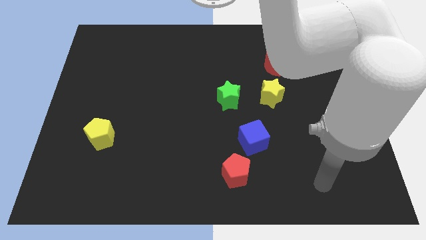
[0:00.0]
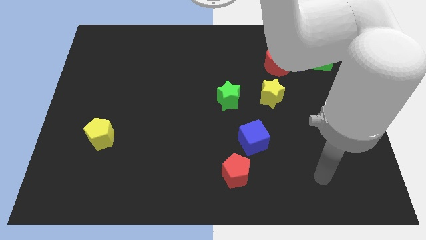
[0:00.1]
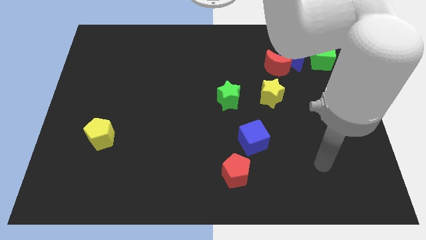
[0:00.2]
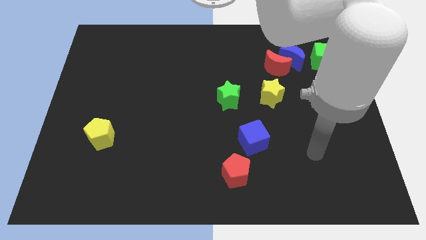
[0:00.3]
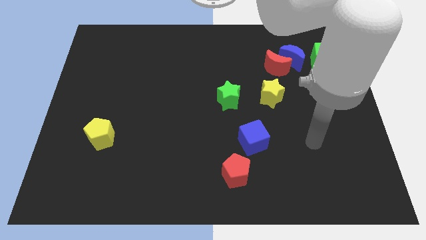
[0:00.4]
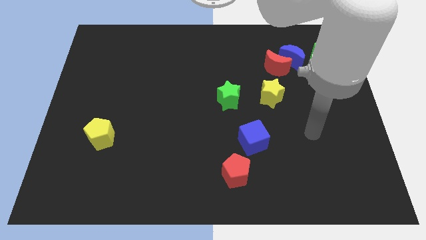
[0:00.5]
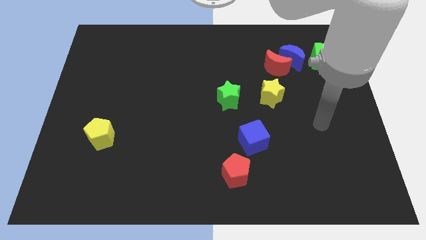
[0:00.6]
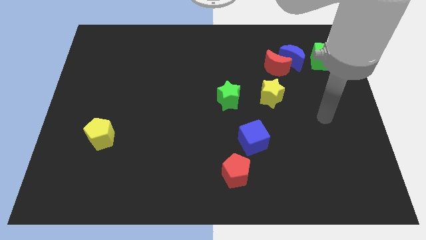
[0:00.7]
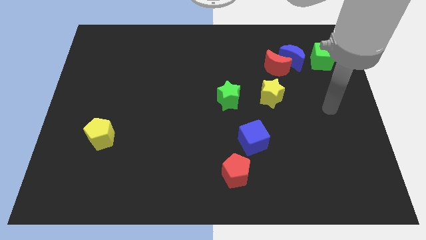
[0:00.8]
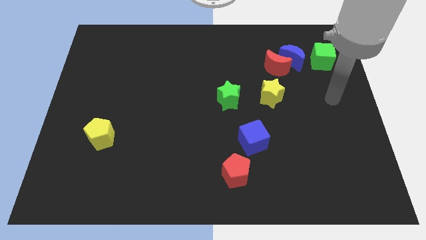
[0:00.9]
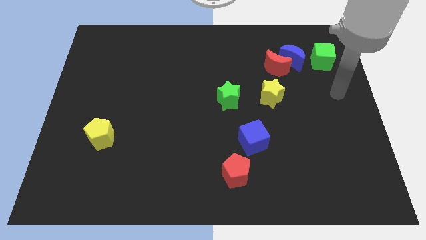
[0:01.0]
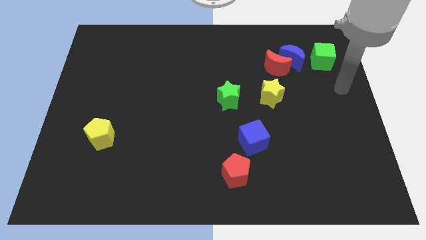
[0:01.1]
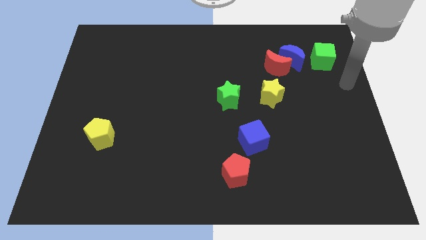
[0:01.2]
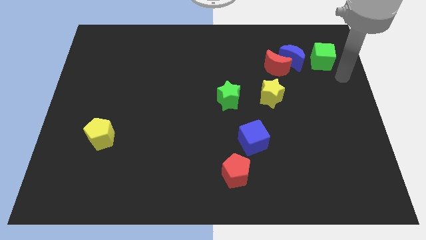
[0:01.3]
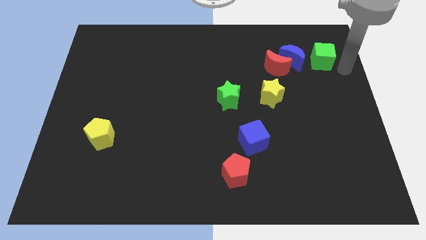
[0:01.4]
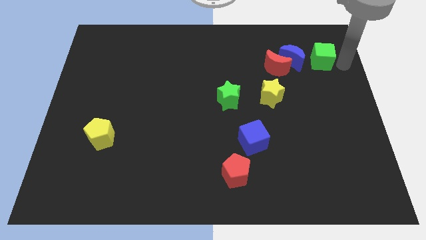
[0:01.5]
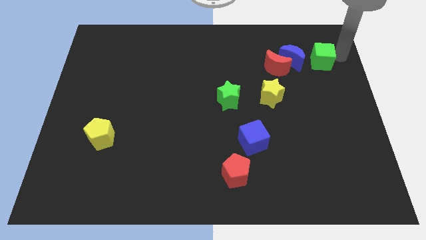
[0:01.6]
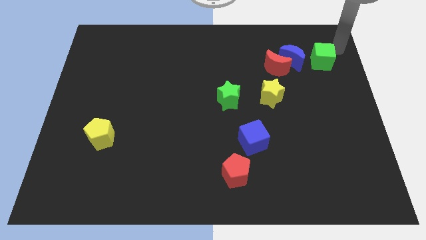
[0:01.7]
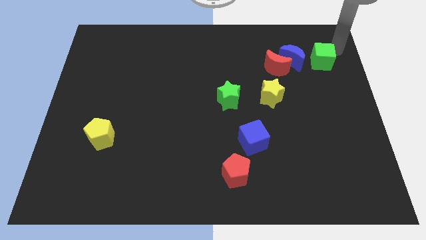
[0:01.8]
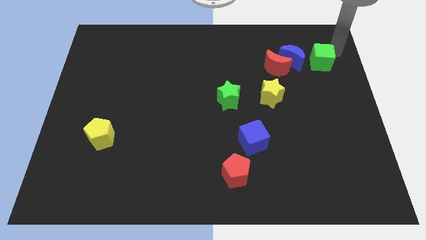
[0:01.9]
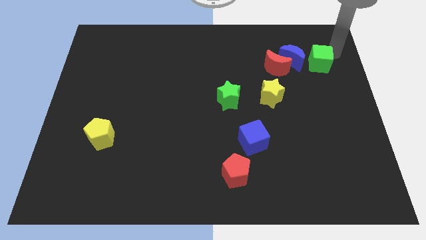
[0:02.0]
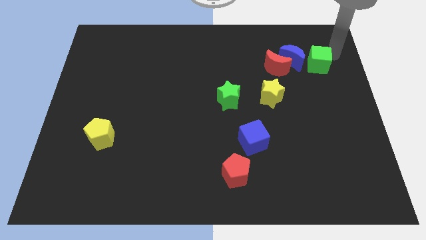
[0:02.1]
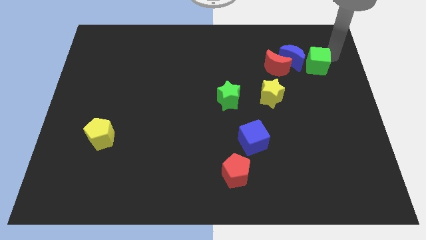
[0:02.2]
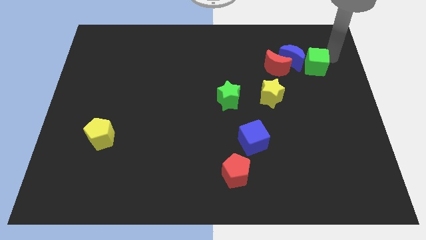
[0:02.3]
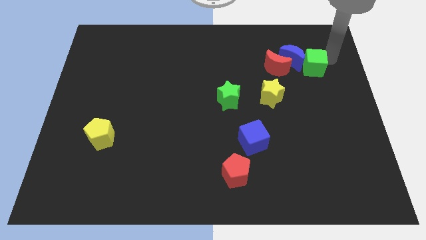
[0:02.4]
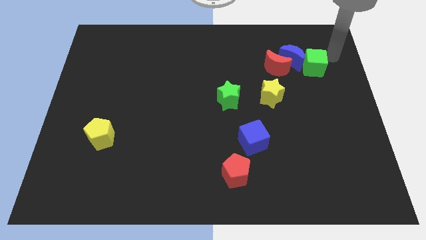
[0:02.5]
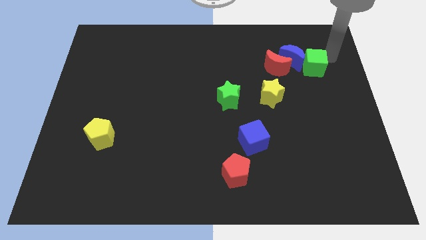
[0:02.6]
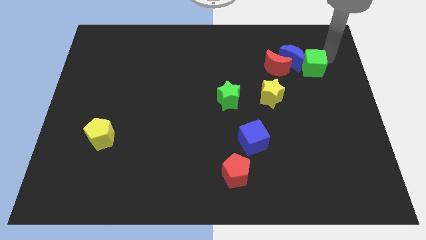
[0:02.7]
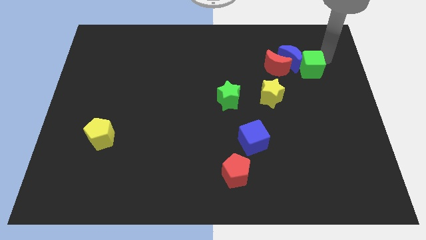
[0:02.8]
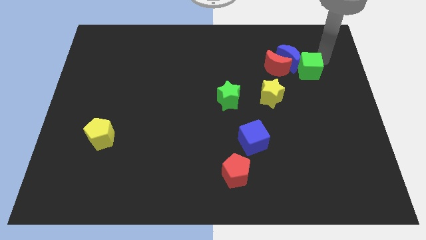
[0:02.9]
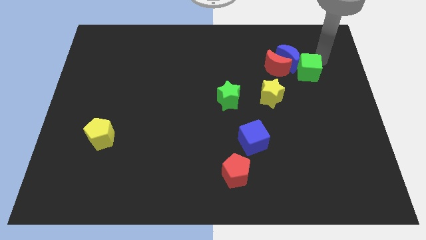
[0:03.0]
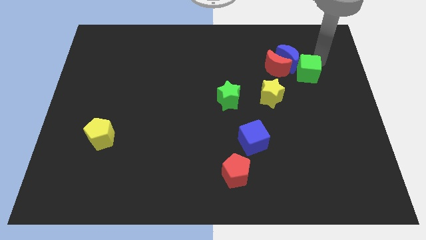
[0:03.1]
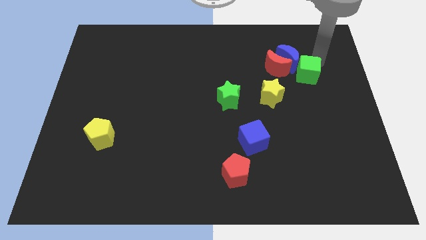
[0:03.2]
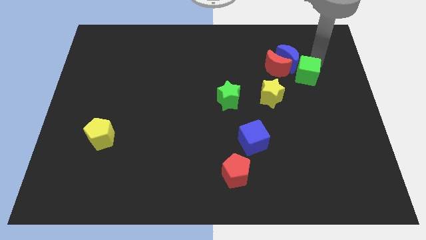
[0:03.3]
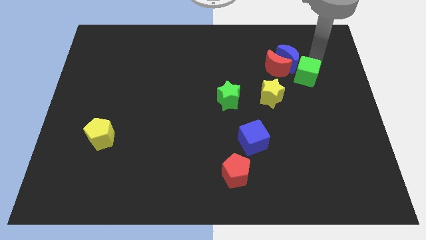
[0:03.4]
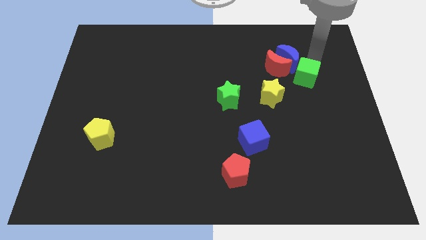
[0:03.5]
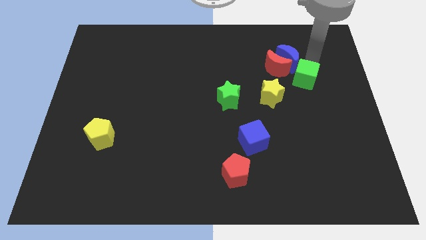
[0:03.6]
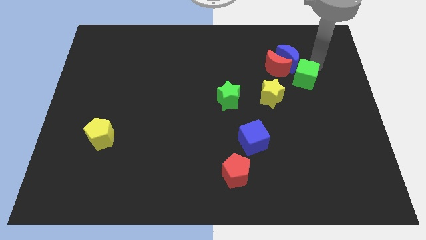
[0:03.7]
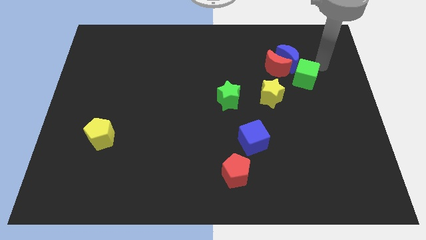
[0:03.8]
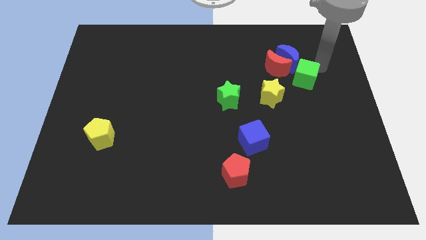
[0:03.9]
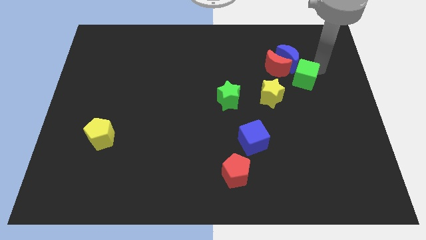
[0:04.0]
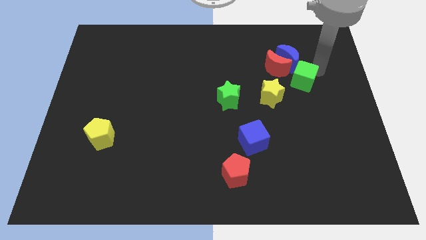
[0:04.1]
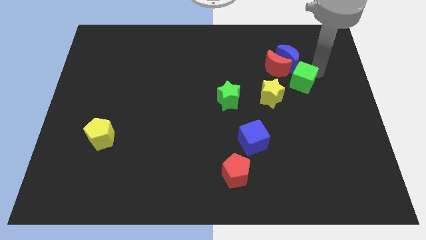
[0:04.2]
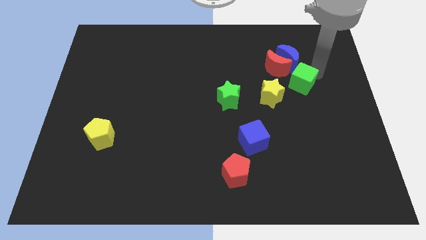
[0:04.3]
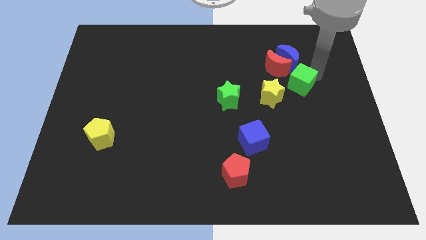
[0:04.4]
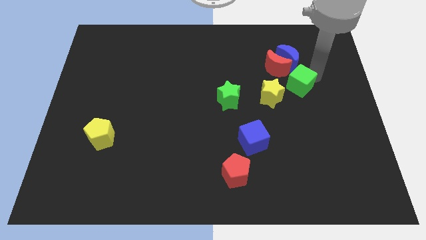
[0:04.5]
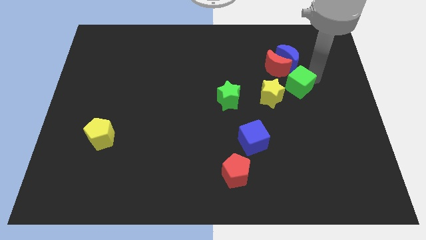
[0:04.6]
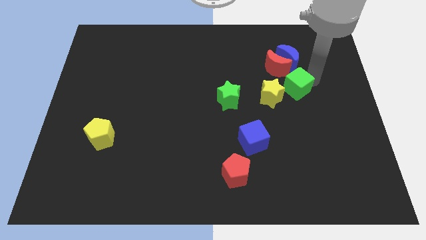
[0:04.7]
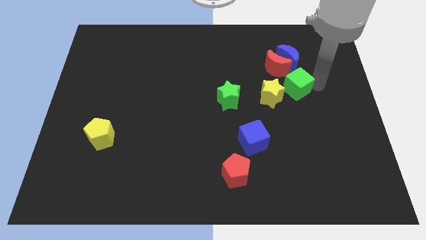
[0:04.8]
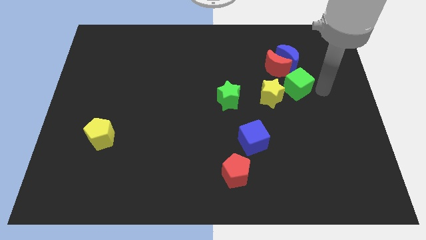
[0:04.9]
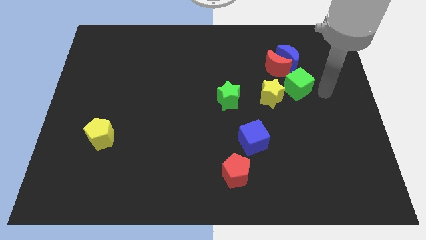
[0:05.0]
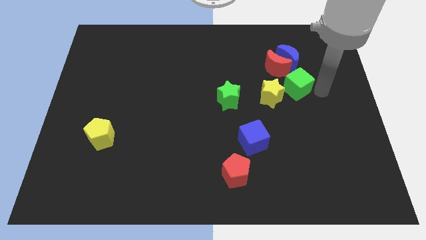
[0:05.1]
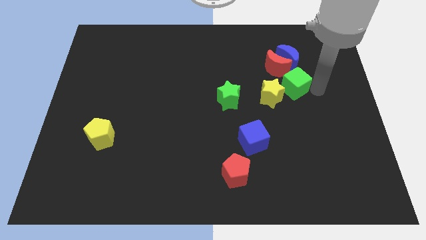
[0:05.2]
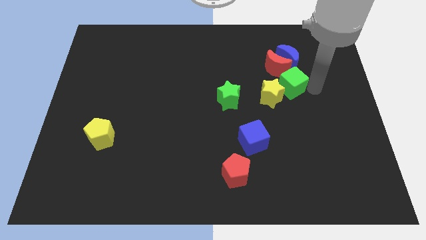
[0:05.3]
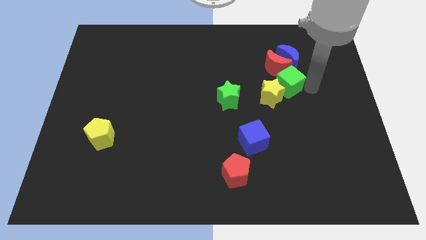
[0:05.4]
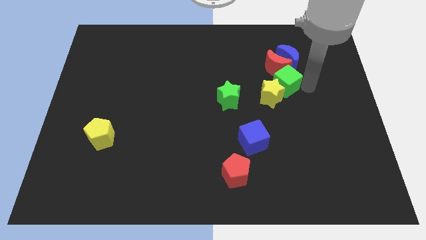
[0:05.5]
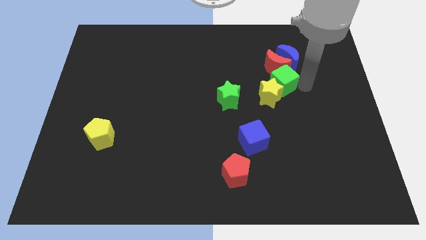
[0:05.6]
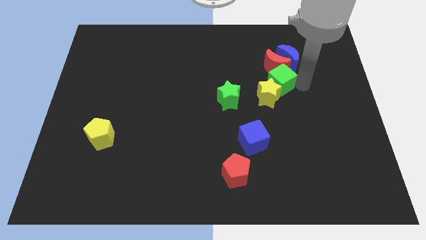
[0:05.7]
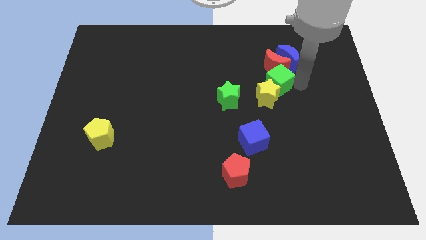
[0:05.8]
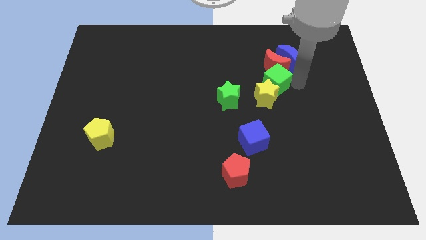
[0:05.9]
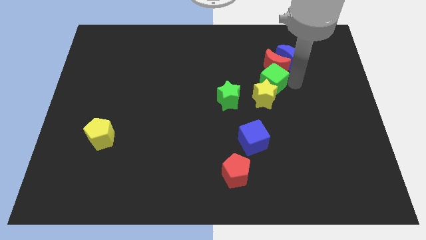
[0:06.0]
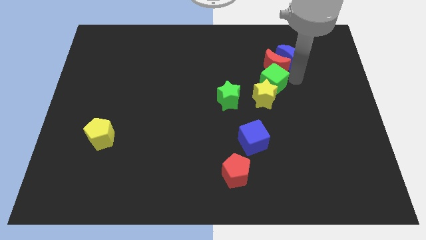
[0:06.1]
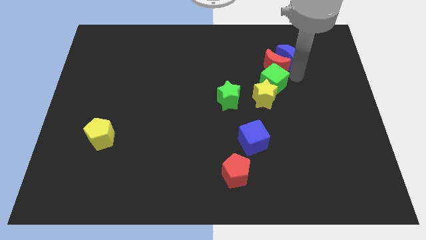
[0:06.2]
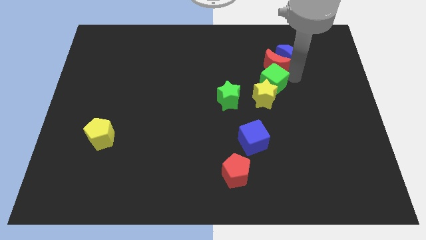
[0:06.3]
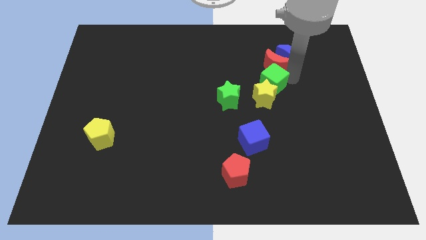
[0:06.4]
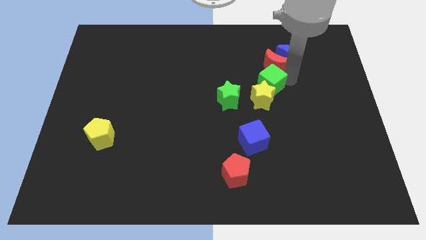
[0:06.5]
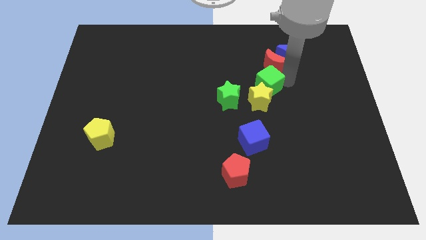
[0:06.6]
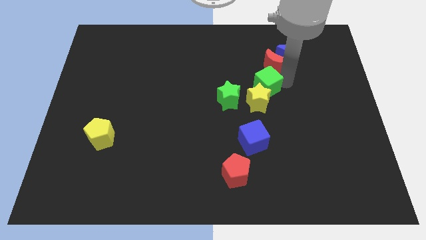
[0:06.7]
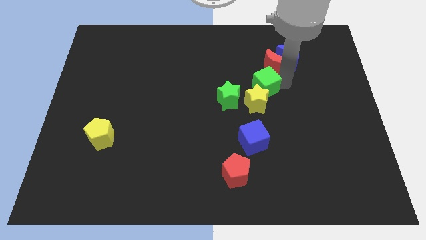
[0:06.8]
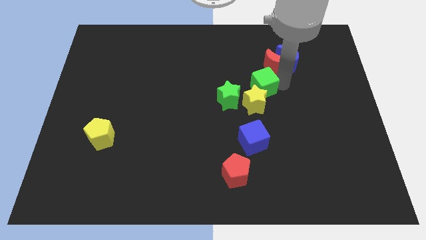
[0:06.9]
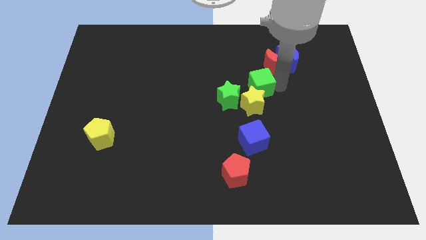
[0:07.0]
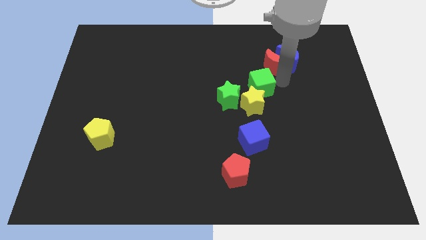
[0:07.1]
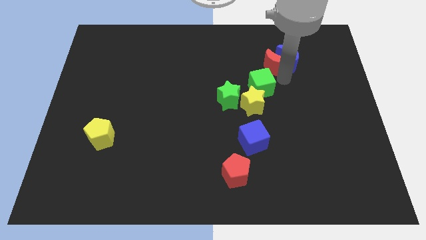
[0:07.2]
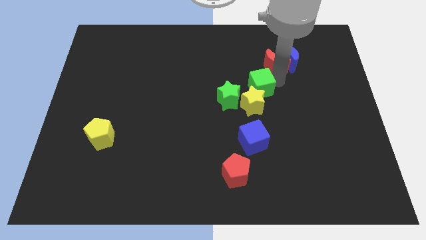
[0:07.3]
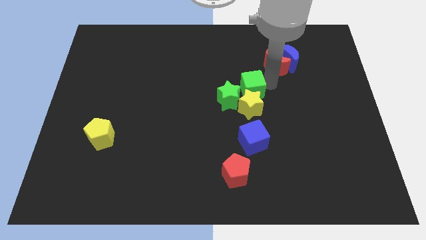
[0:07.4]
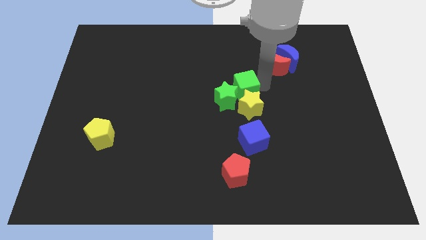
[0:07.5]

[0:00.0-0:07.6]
slide the green cube next to the green star

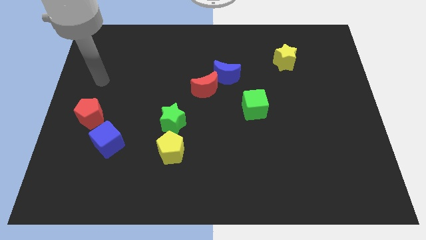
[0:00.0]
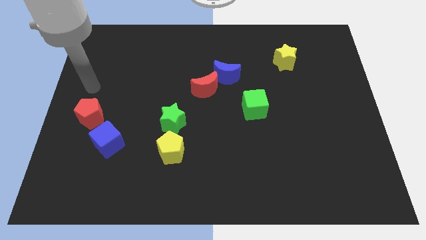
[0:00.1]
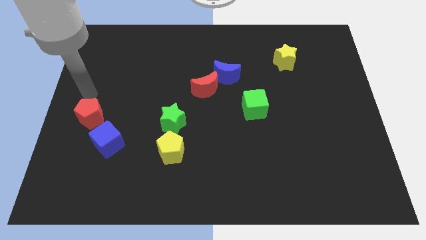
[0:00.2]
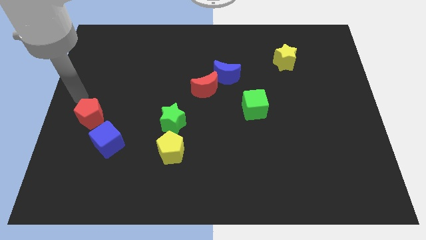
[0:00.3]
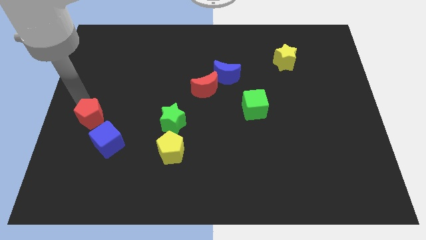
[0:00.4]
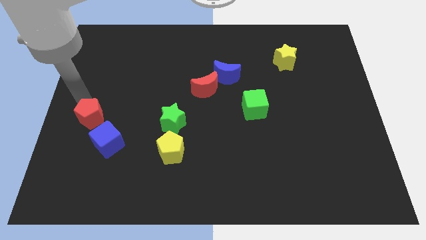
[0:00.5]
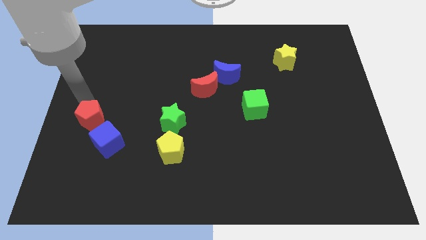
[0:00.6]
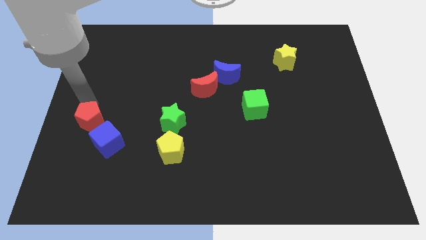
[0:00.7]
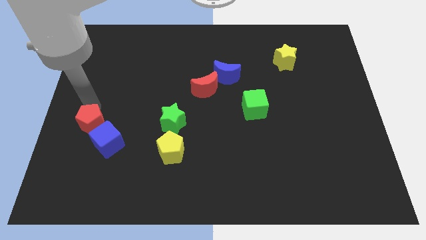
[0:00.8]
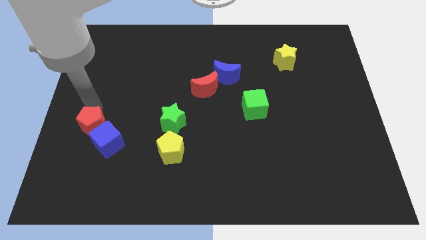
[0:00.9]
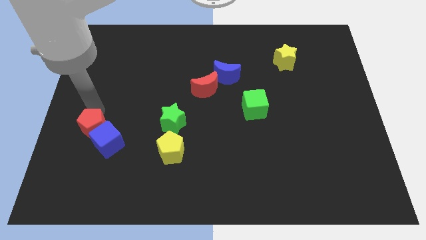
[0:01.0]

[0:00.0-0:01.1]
move the red pentagon to the blue cube
